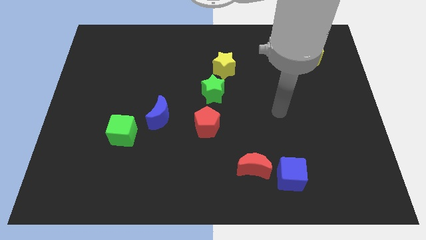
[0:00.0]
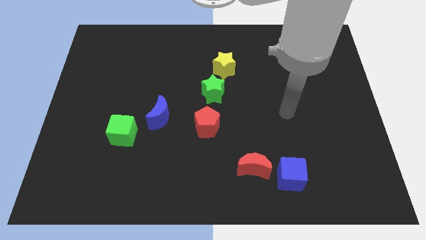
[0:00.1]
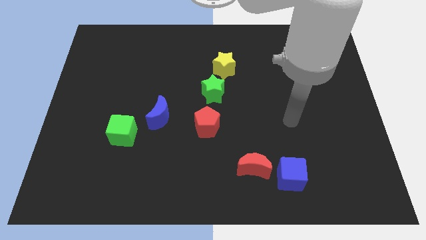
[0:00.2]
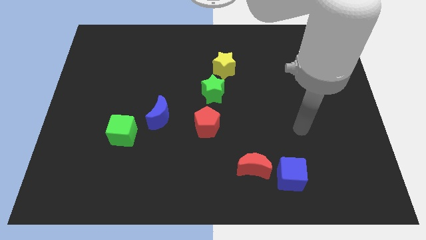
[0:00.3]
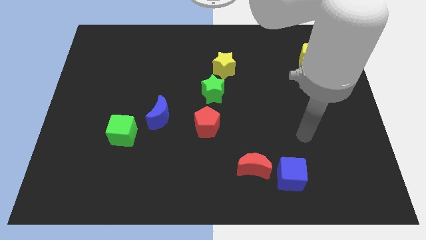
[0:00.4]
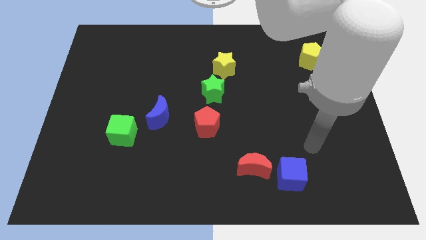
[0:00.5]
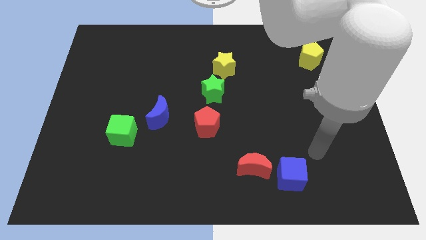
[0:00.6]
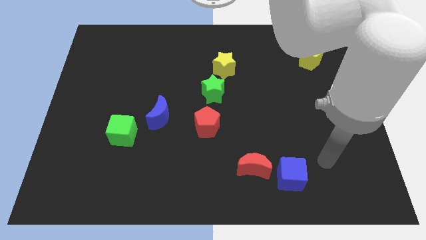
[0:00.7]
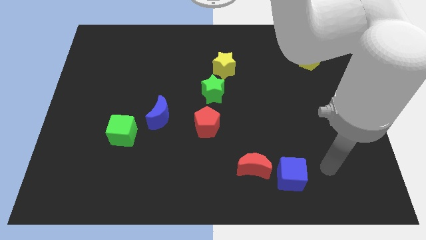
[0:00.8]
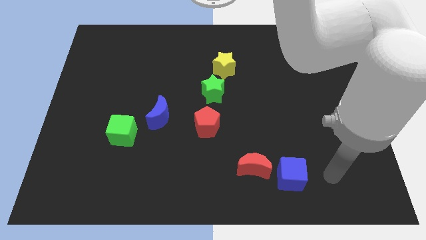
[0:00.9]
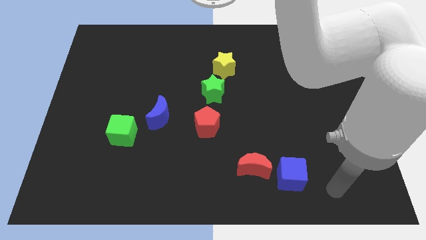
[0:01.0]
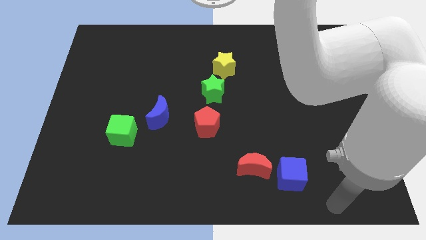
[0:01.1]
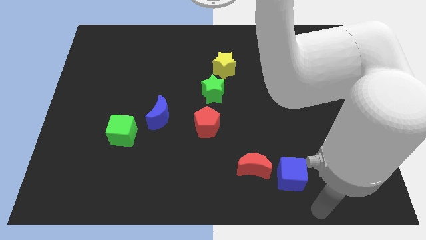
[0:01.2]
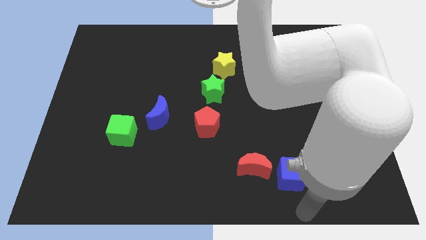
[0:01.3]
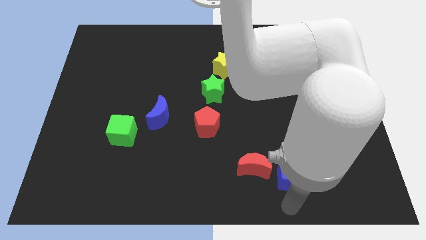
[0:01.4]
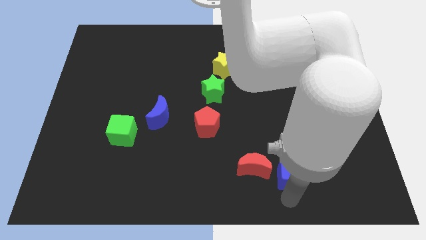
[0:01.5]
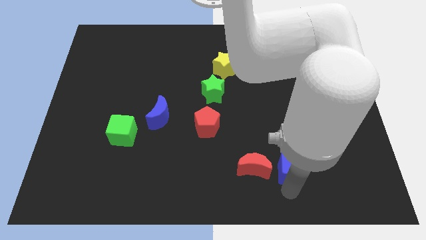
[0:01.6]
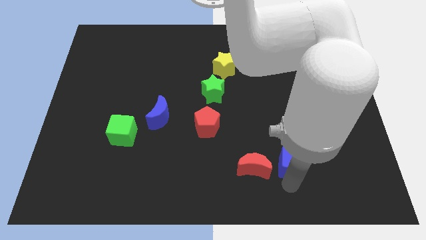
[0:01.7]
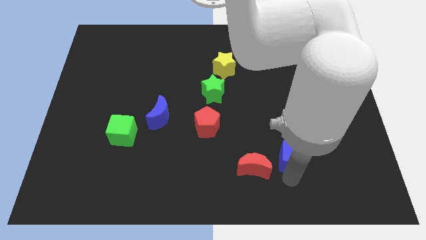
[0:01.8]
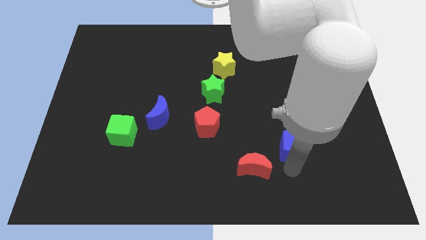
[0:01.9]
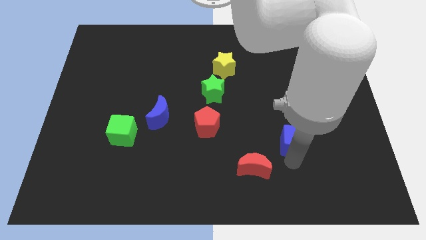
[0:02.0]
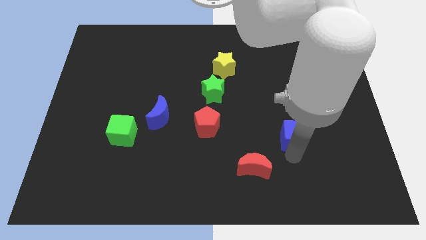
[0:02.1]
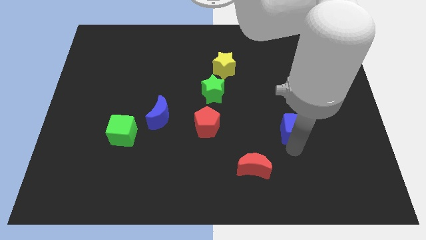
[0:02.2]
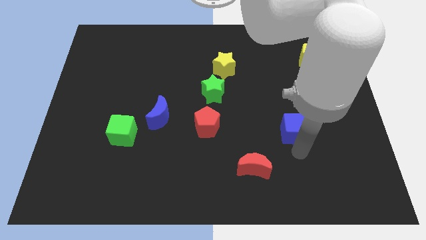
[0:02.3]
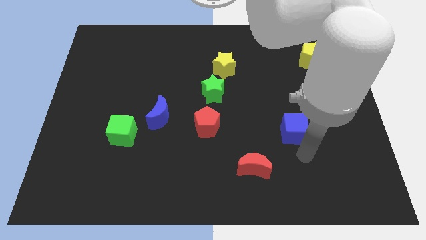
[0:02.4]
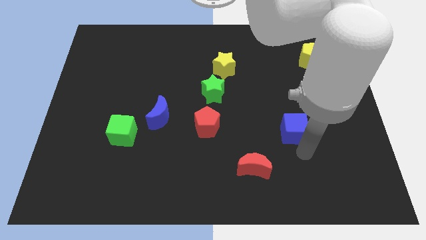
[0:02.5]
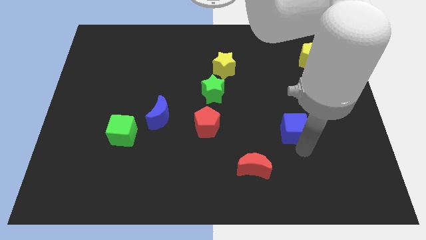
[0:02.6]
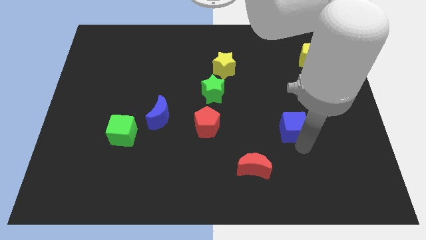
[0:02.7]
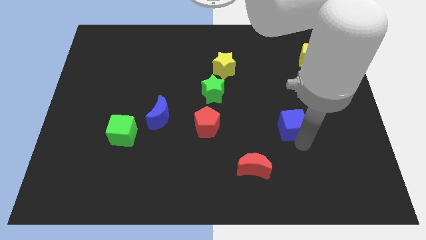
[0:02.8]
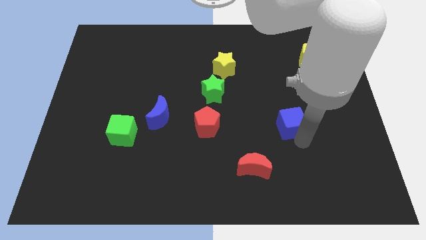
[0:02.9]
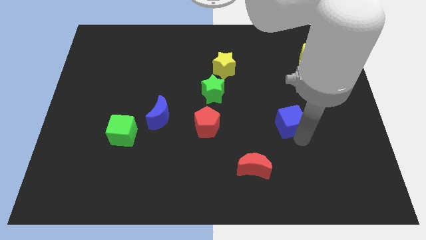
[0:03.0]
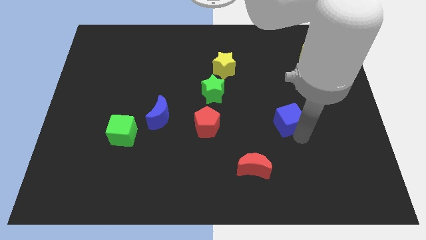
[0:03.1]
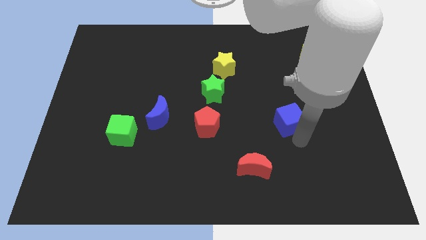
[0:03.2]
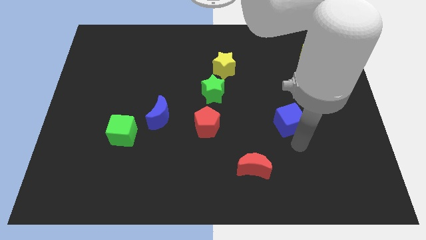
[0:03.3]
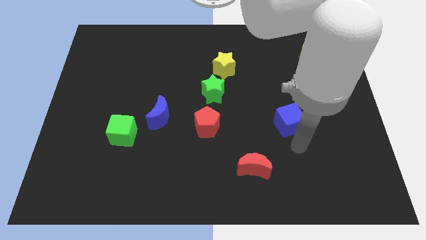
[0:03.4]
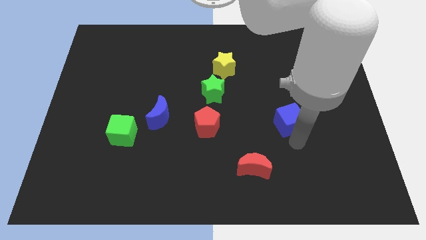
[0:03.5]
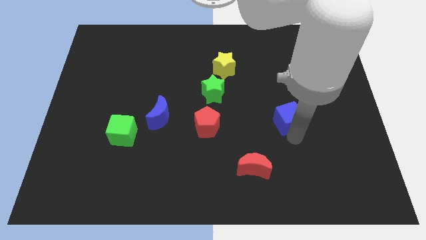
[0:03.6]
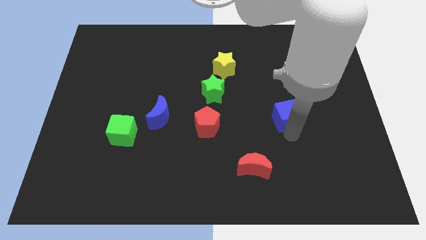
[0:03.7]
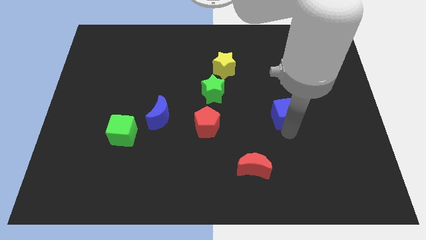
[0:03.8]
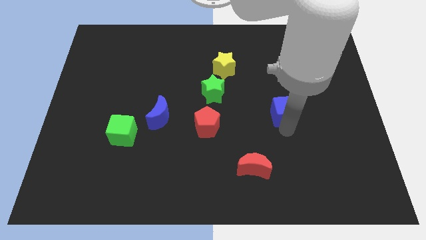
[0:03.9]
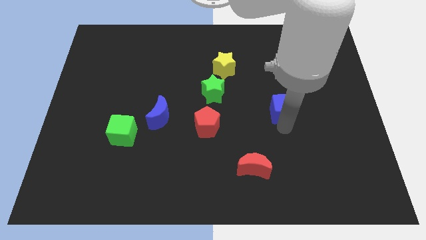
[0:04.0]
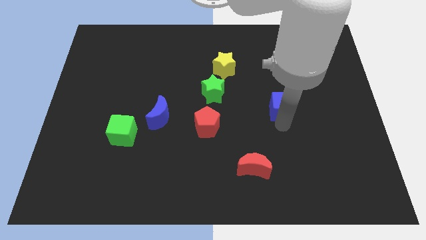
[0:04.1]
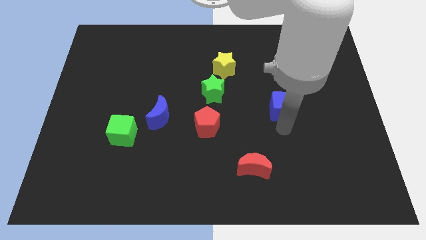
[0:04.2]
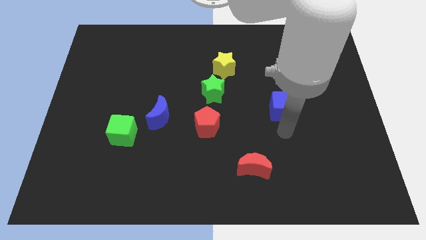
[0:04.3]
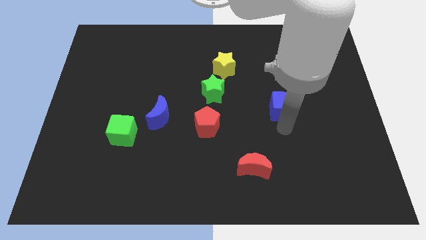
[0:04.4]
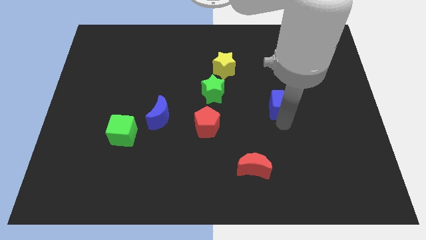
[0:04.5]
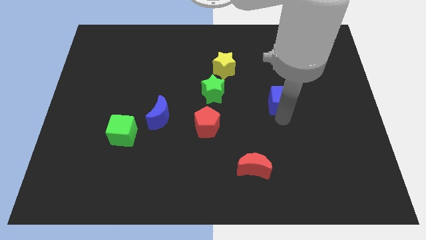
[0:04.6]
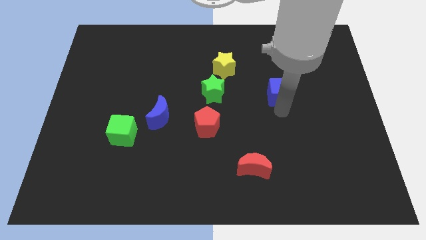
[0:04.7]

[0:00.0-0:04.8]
move the blue cube upwards

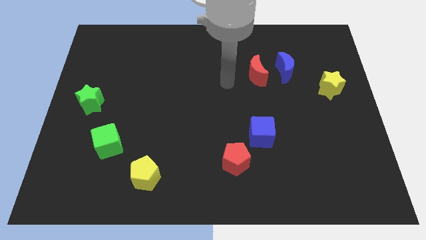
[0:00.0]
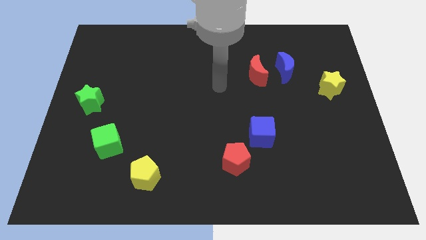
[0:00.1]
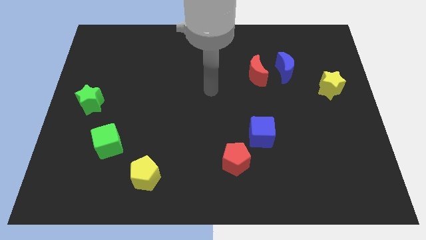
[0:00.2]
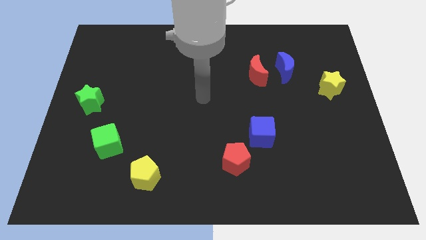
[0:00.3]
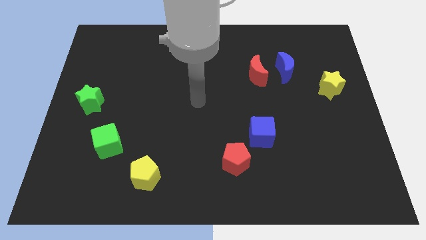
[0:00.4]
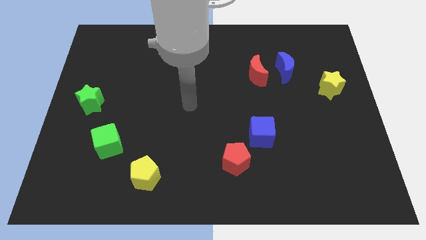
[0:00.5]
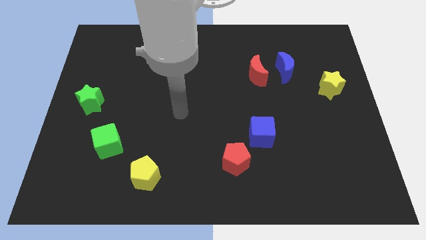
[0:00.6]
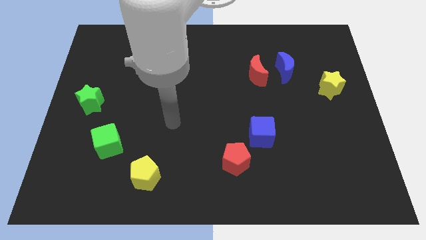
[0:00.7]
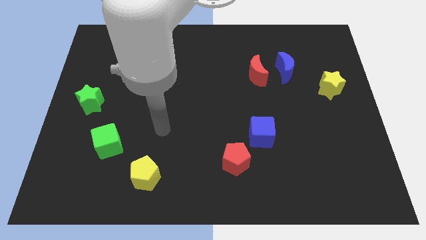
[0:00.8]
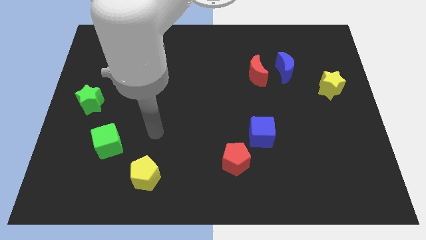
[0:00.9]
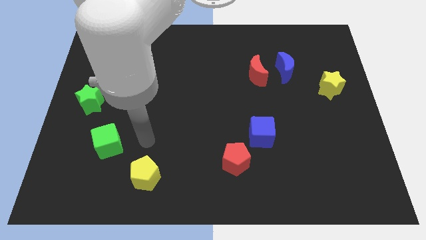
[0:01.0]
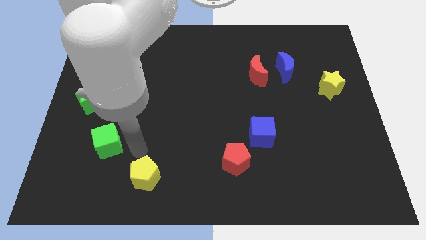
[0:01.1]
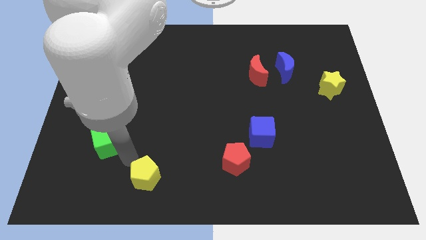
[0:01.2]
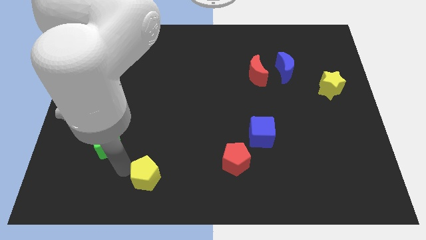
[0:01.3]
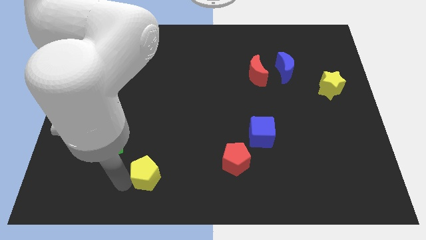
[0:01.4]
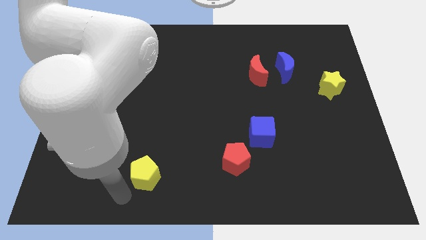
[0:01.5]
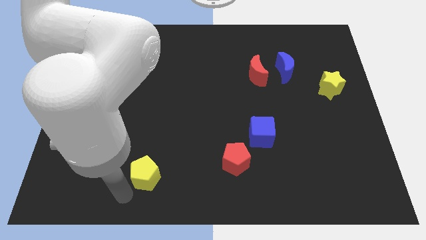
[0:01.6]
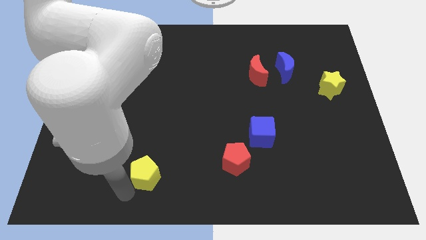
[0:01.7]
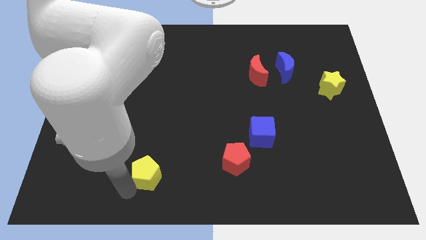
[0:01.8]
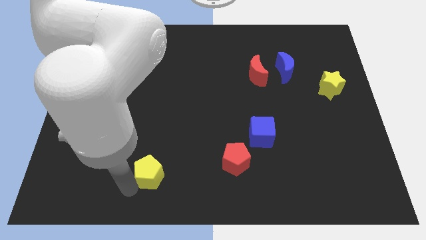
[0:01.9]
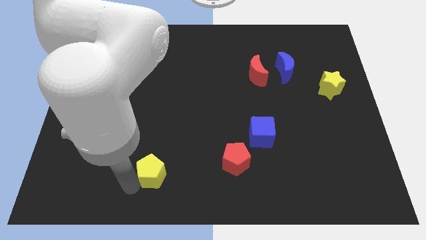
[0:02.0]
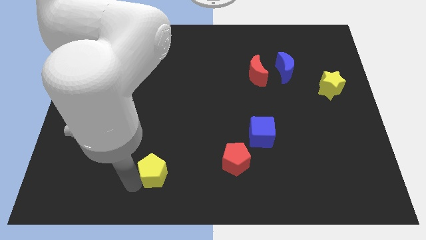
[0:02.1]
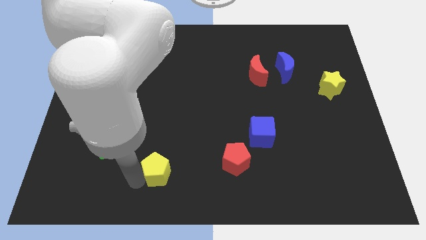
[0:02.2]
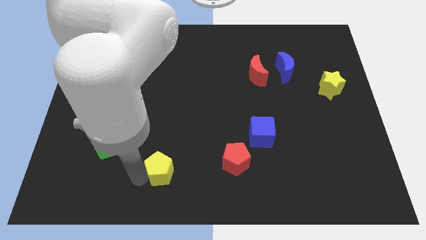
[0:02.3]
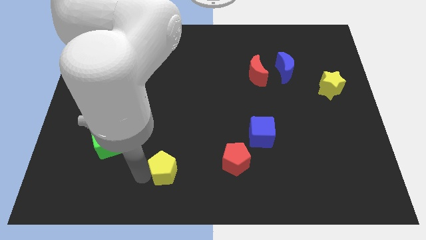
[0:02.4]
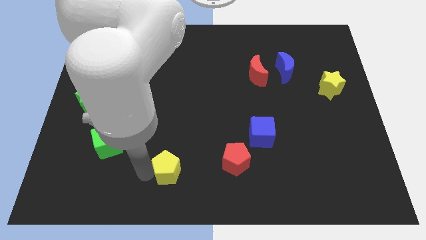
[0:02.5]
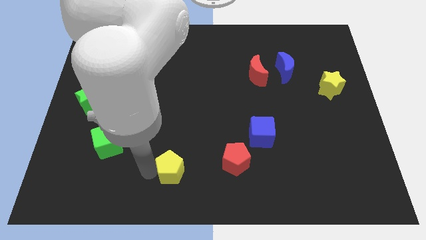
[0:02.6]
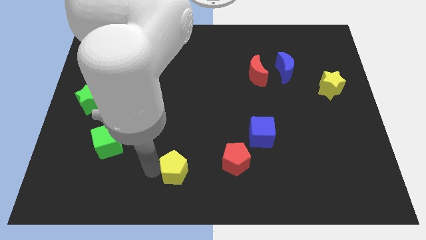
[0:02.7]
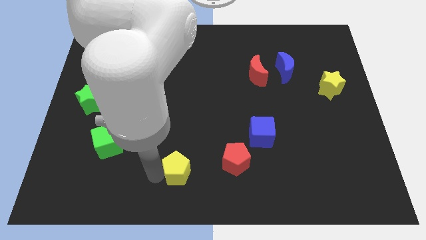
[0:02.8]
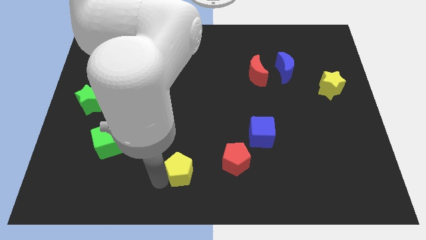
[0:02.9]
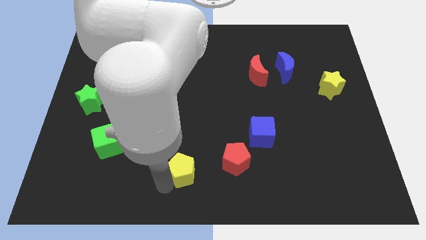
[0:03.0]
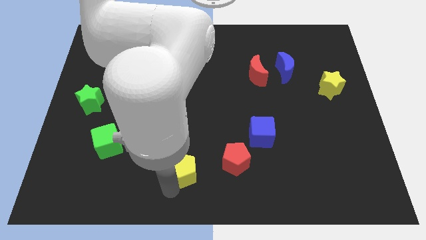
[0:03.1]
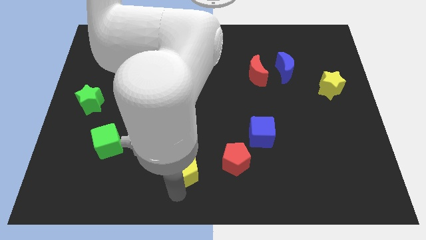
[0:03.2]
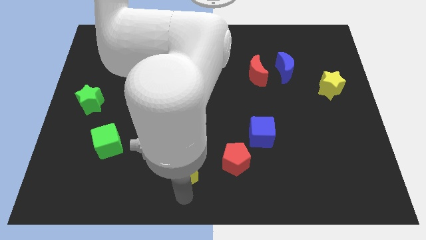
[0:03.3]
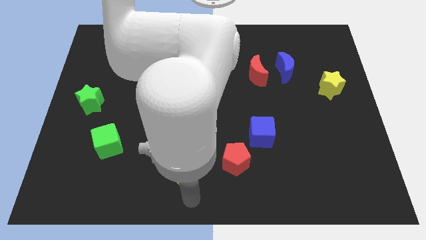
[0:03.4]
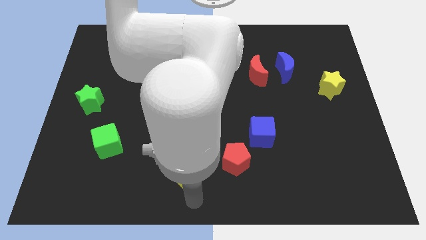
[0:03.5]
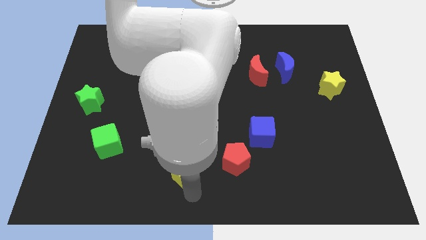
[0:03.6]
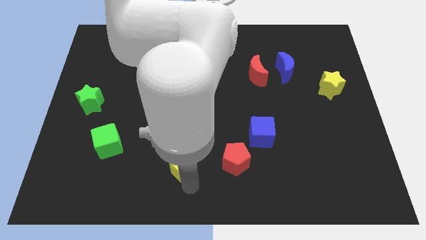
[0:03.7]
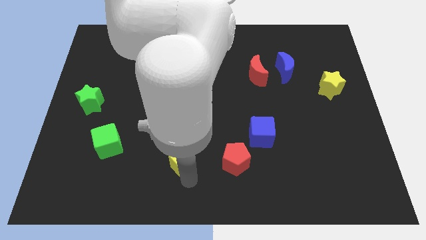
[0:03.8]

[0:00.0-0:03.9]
slightly push the yellow pentagon up and then right
